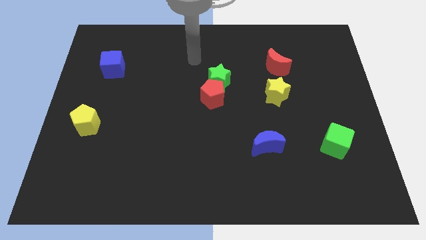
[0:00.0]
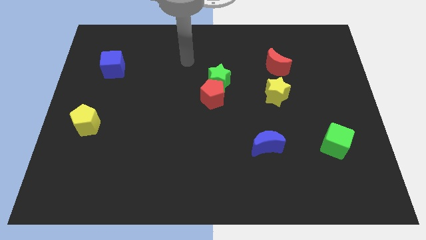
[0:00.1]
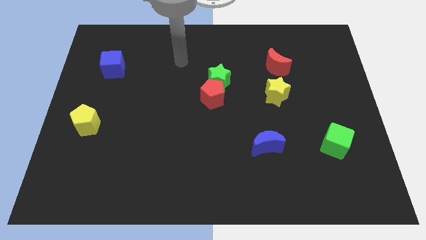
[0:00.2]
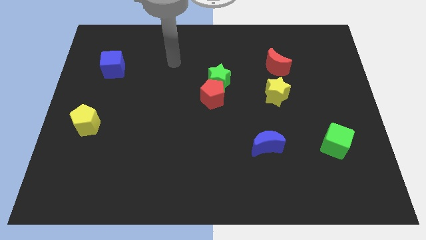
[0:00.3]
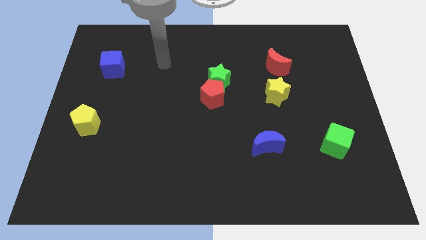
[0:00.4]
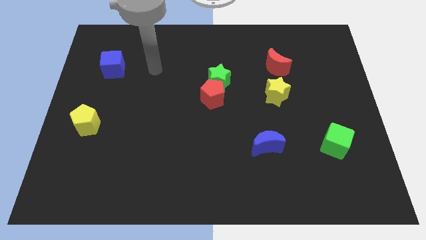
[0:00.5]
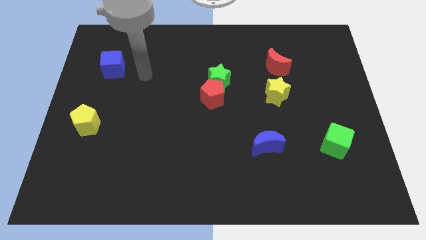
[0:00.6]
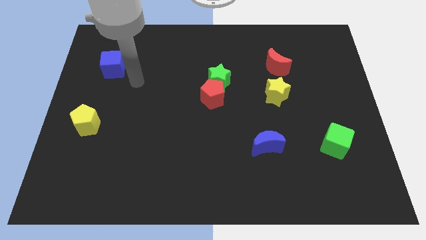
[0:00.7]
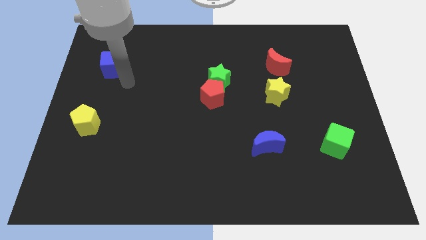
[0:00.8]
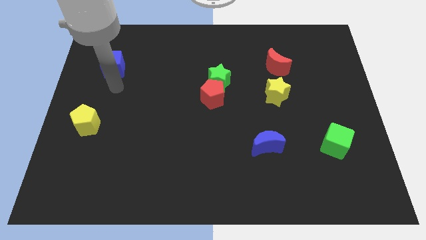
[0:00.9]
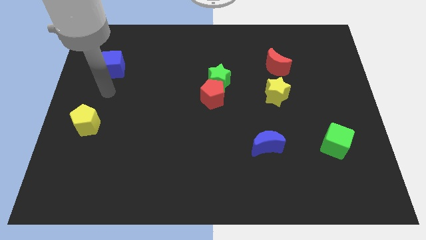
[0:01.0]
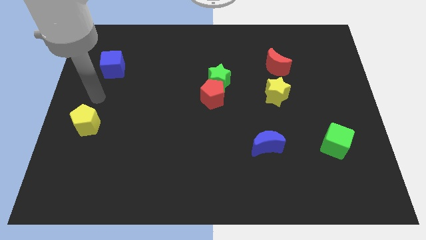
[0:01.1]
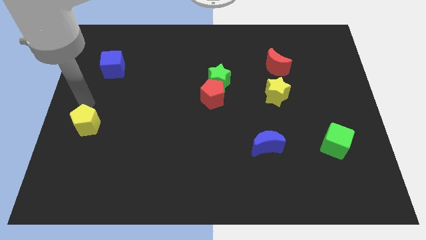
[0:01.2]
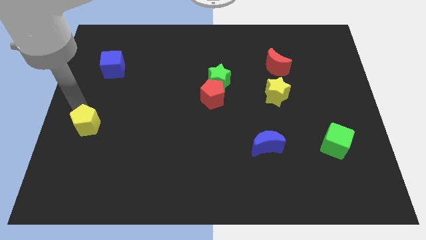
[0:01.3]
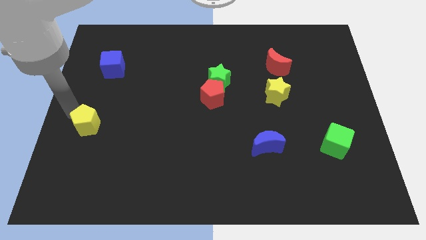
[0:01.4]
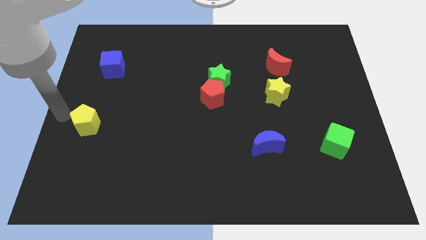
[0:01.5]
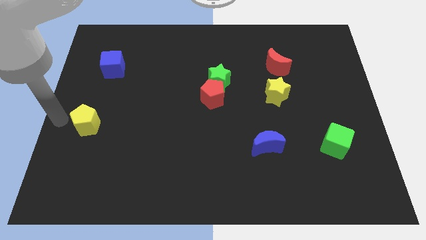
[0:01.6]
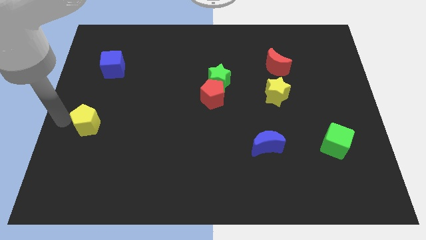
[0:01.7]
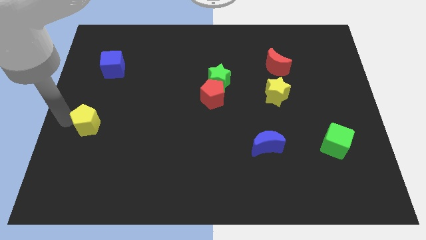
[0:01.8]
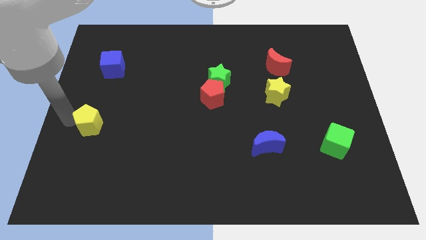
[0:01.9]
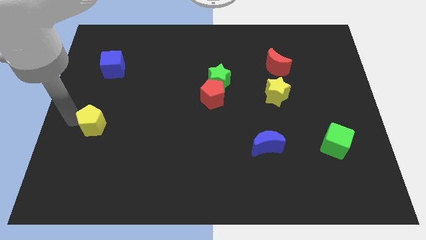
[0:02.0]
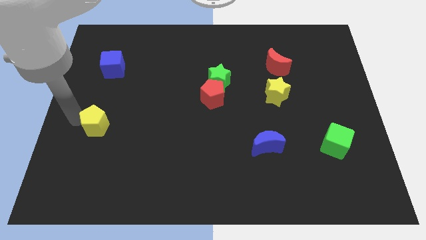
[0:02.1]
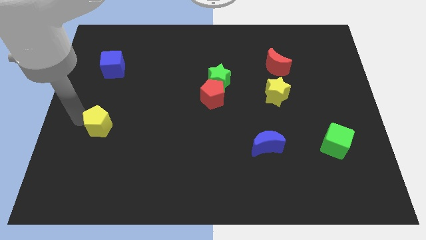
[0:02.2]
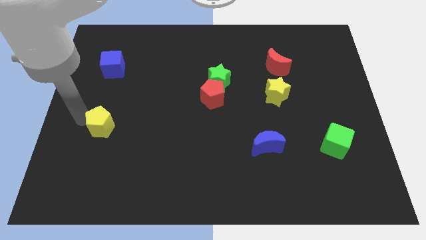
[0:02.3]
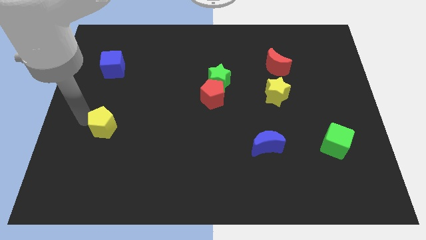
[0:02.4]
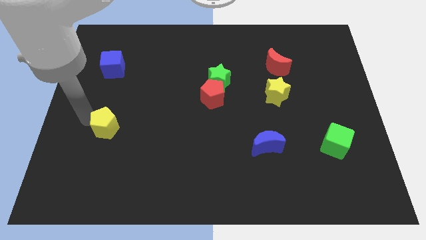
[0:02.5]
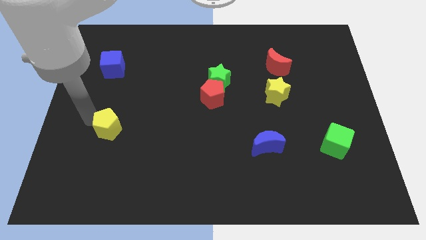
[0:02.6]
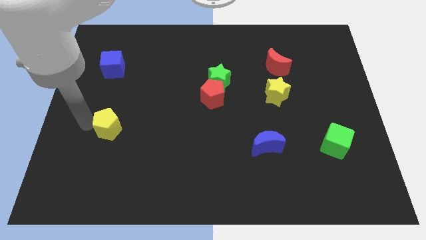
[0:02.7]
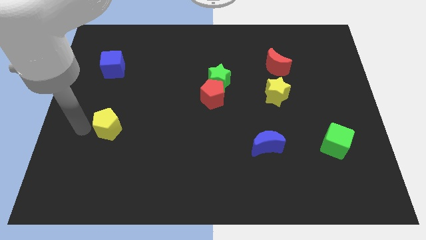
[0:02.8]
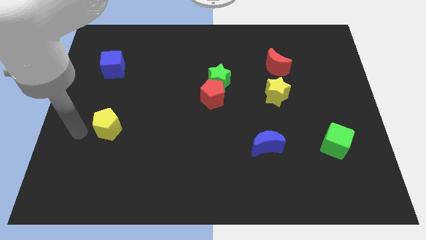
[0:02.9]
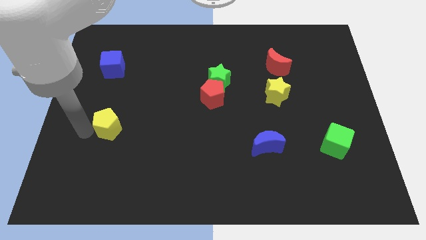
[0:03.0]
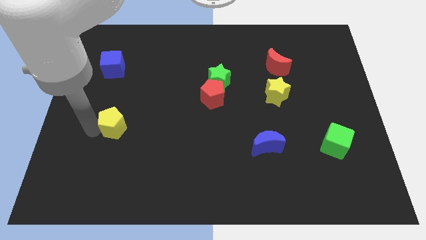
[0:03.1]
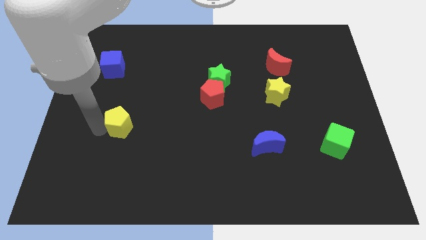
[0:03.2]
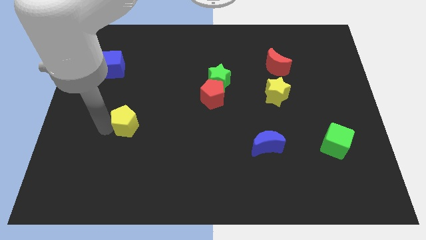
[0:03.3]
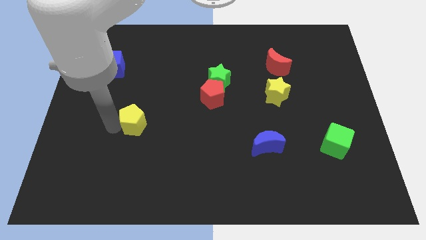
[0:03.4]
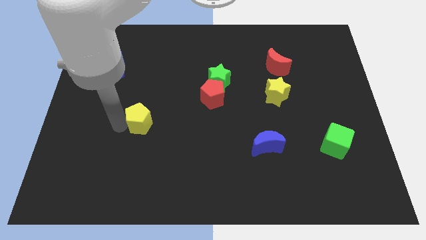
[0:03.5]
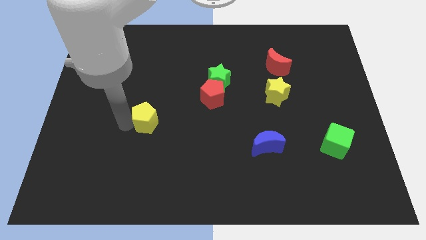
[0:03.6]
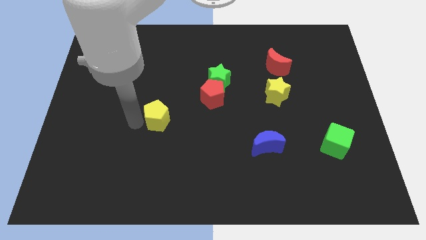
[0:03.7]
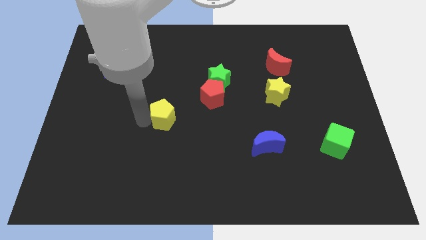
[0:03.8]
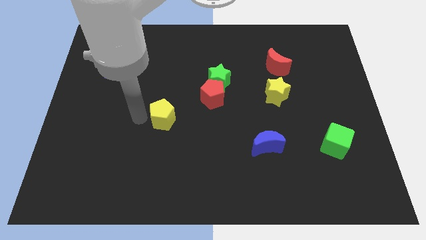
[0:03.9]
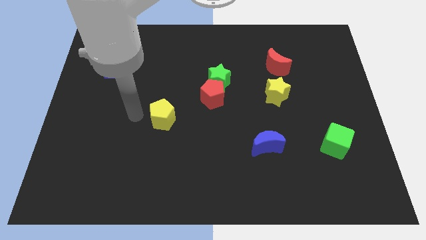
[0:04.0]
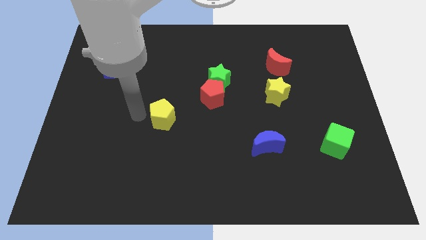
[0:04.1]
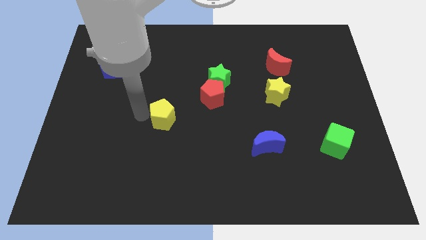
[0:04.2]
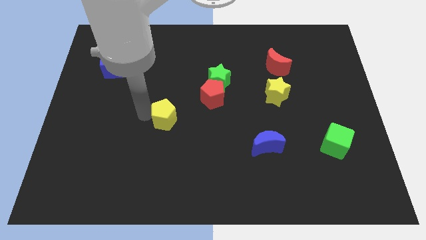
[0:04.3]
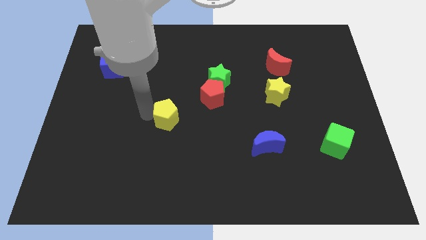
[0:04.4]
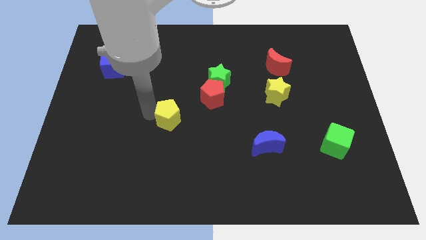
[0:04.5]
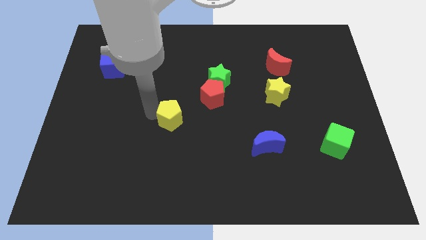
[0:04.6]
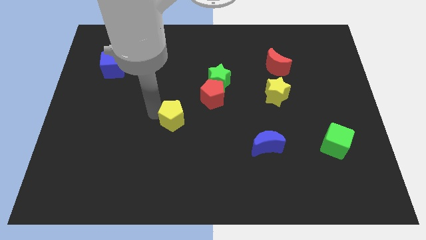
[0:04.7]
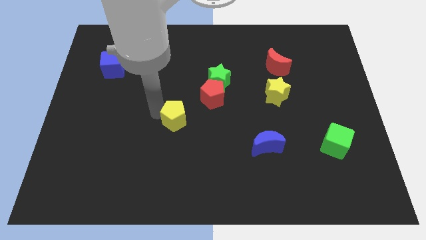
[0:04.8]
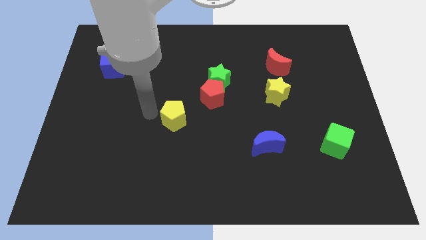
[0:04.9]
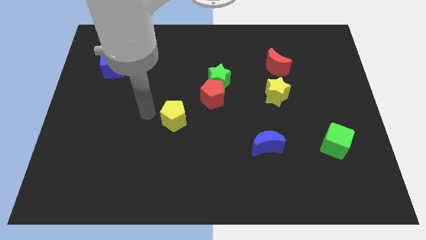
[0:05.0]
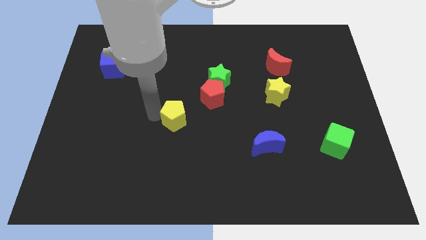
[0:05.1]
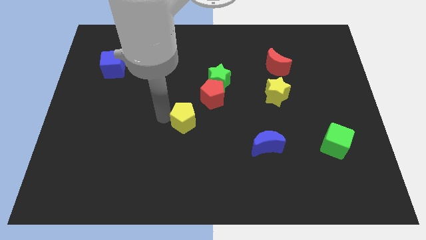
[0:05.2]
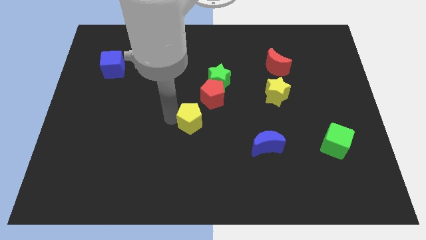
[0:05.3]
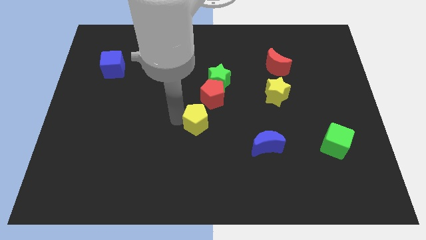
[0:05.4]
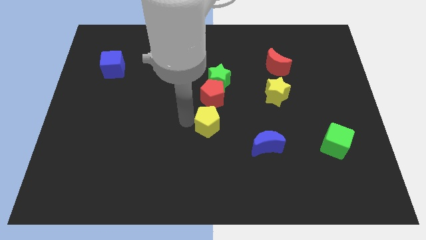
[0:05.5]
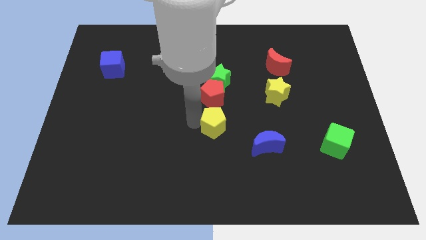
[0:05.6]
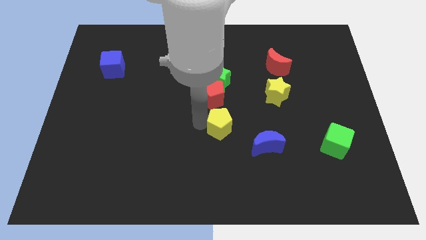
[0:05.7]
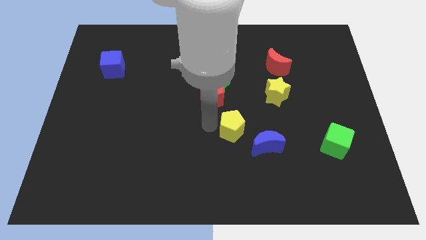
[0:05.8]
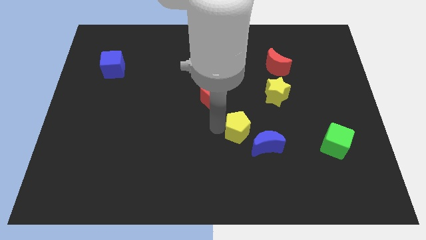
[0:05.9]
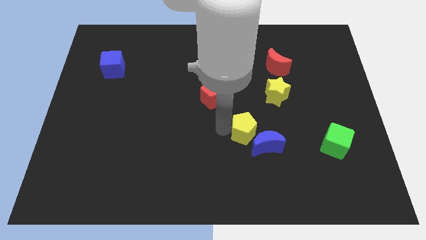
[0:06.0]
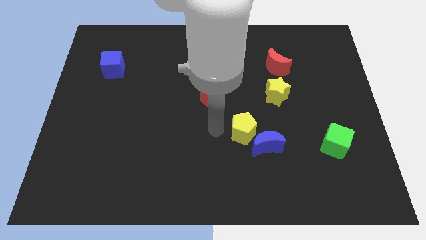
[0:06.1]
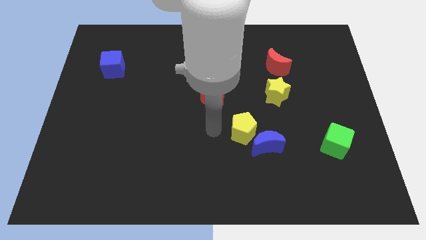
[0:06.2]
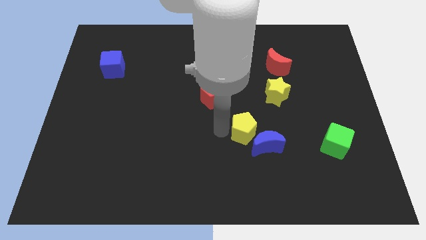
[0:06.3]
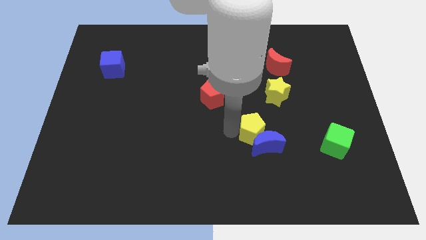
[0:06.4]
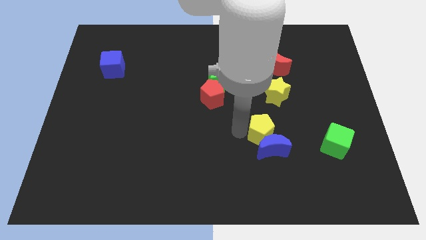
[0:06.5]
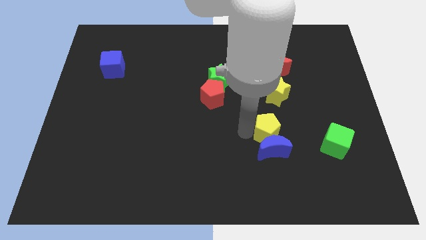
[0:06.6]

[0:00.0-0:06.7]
put the yellow pentagon just left of the green cube

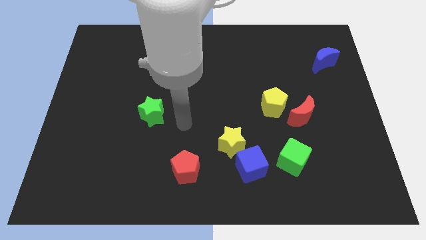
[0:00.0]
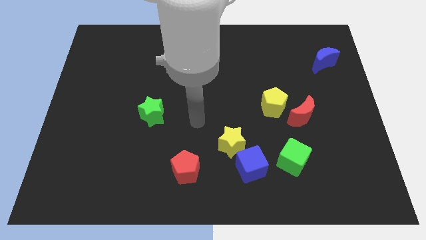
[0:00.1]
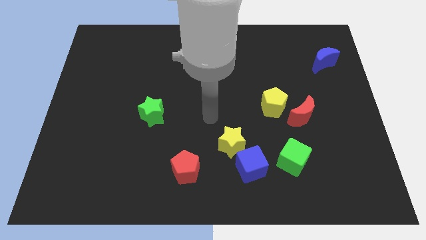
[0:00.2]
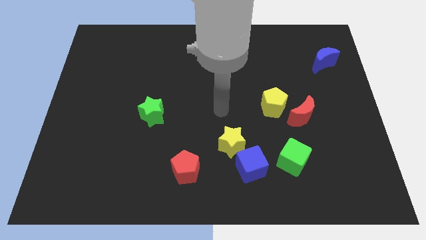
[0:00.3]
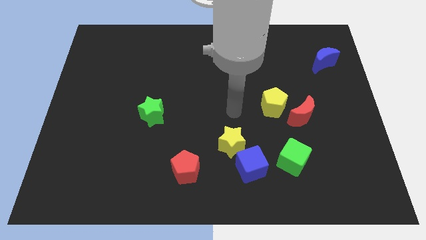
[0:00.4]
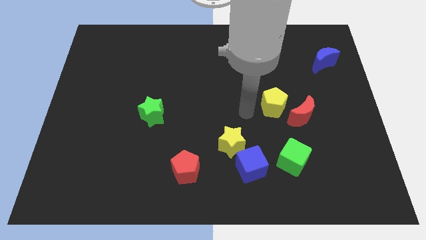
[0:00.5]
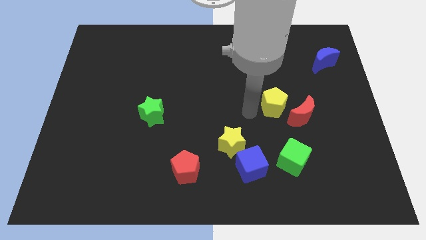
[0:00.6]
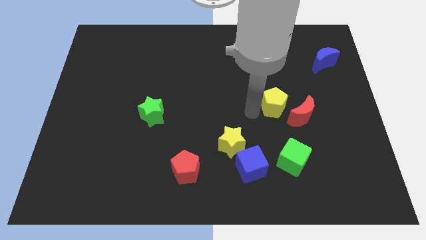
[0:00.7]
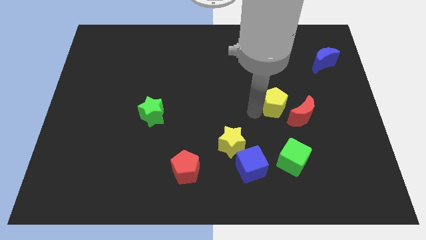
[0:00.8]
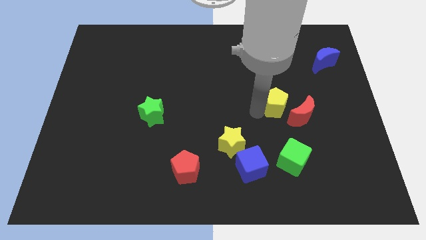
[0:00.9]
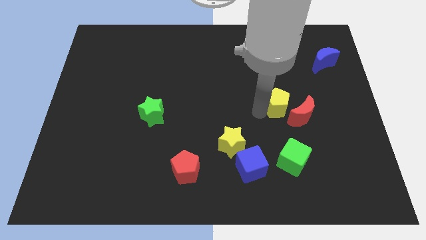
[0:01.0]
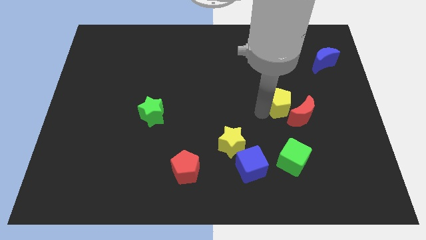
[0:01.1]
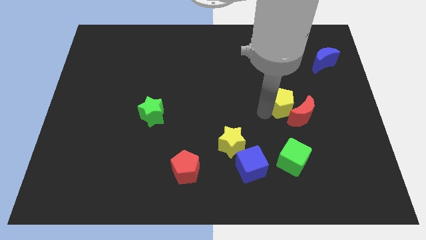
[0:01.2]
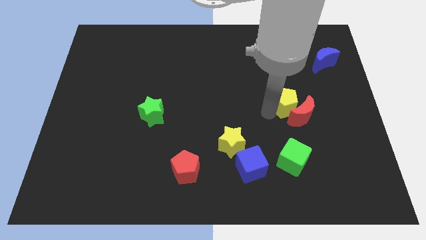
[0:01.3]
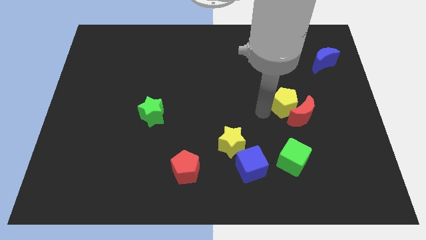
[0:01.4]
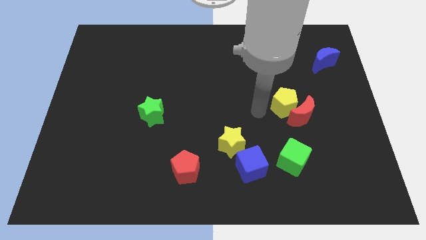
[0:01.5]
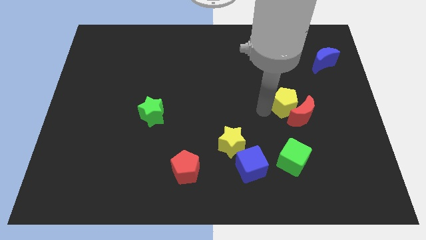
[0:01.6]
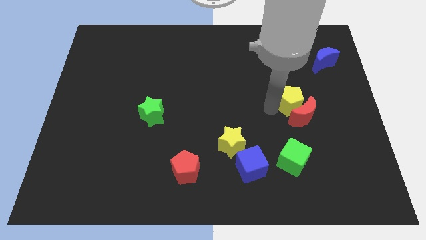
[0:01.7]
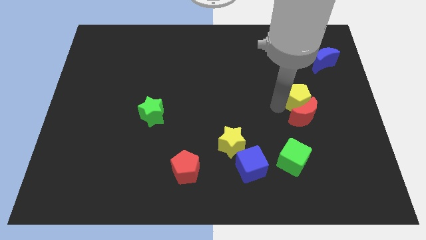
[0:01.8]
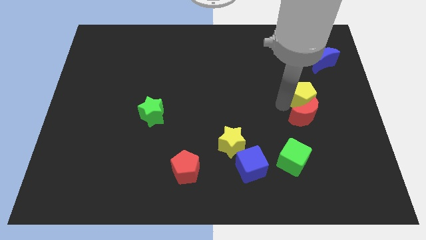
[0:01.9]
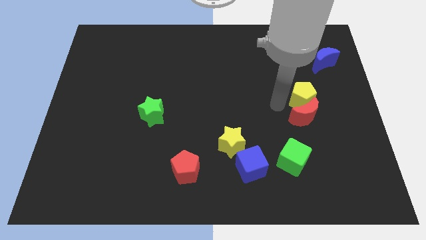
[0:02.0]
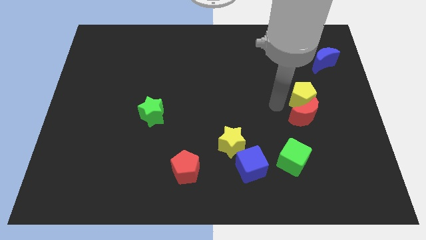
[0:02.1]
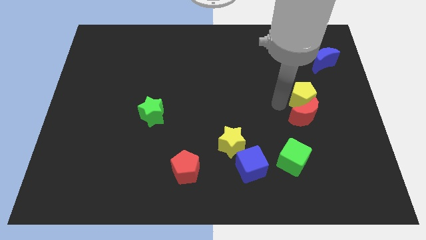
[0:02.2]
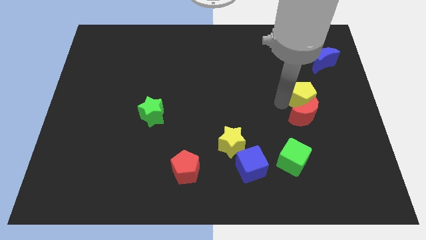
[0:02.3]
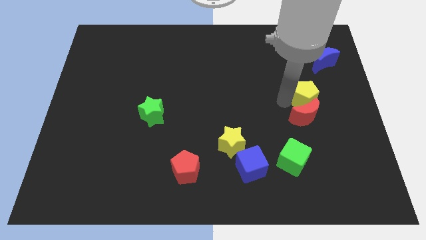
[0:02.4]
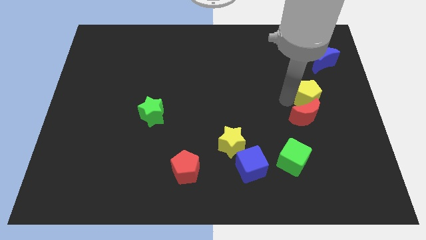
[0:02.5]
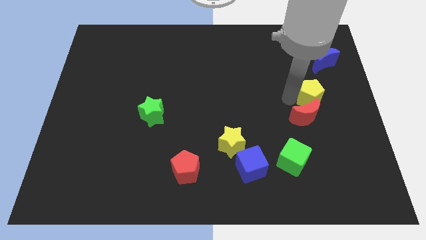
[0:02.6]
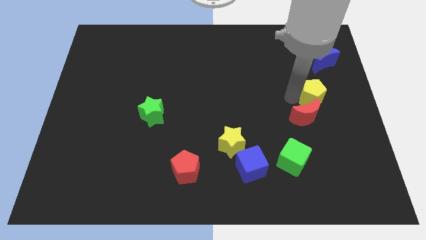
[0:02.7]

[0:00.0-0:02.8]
slide the yellow pentagon to the bottom of the blue moon
